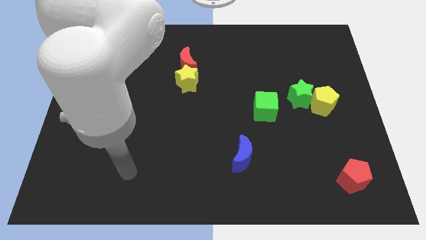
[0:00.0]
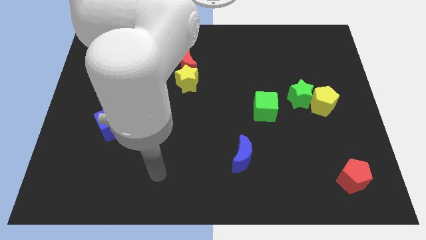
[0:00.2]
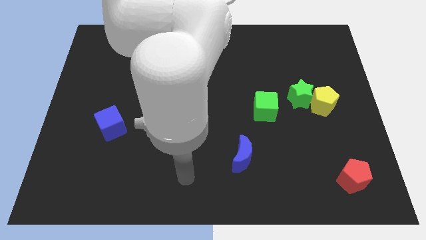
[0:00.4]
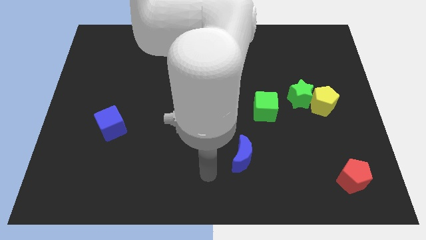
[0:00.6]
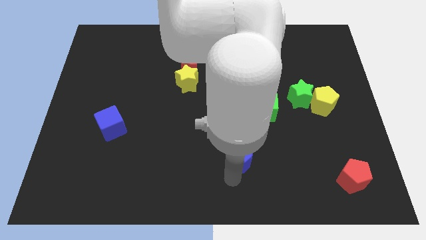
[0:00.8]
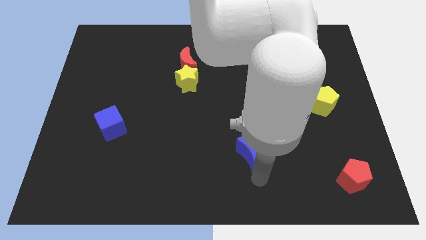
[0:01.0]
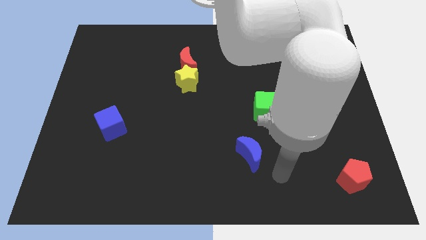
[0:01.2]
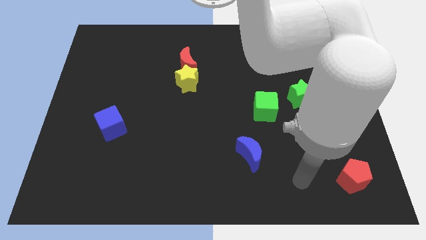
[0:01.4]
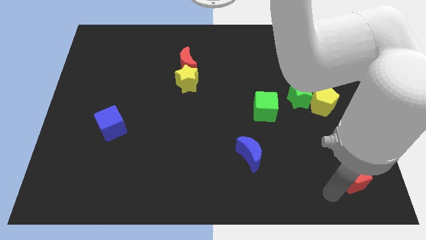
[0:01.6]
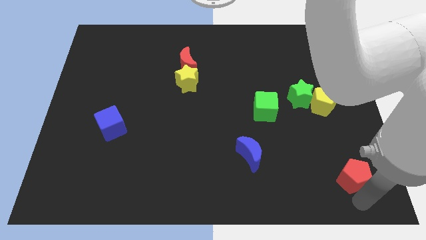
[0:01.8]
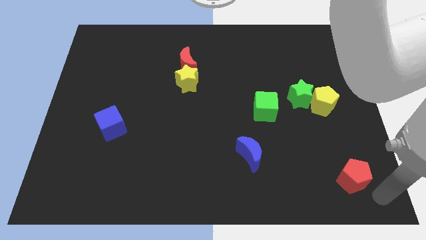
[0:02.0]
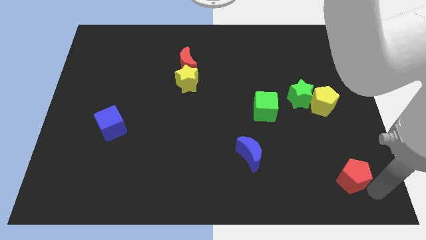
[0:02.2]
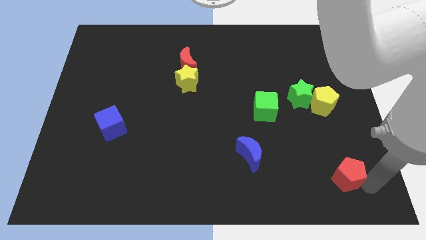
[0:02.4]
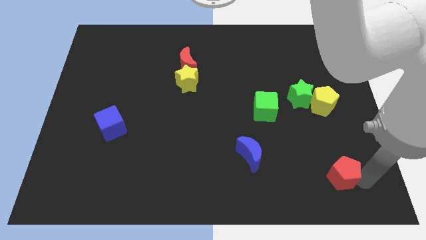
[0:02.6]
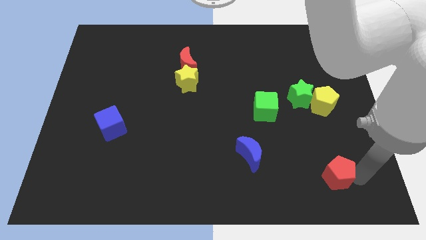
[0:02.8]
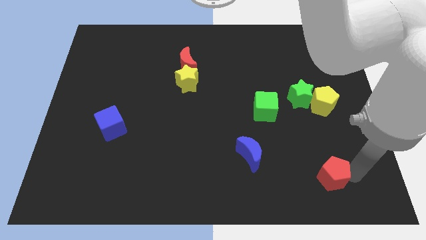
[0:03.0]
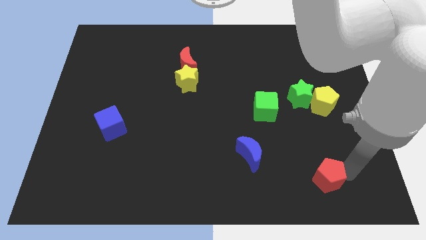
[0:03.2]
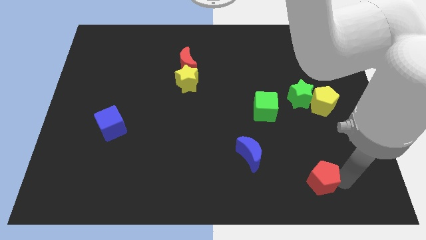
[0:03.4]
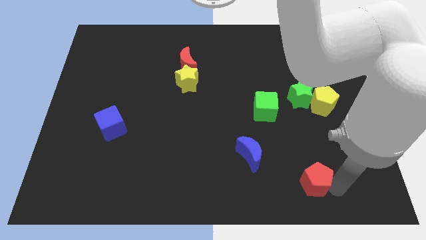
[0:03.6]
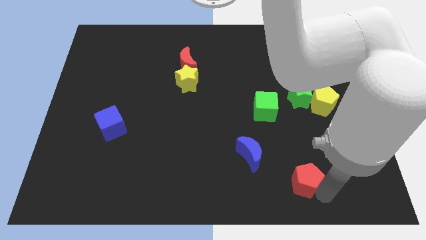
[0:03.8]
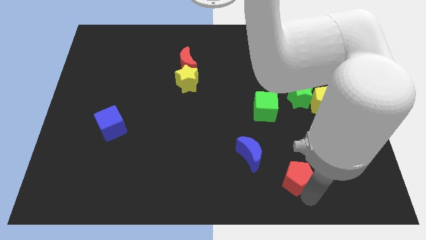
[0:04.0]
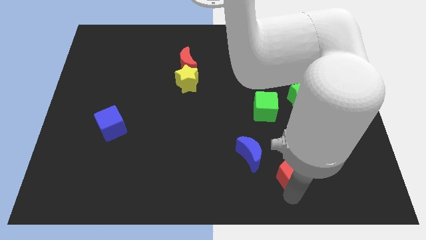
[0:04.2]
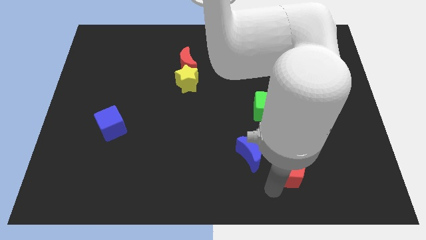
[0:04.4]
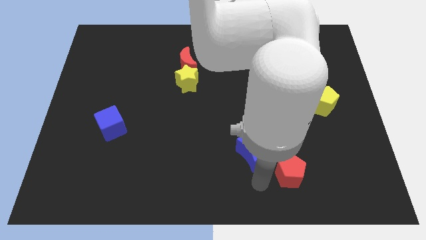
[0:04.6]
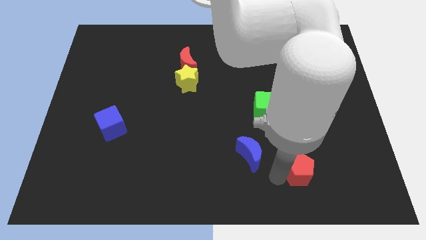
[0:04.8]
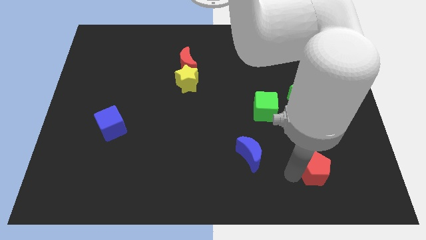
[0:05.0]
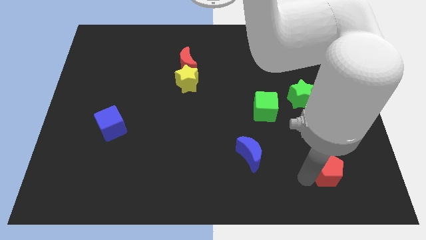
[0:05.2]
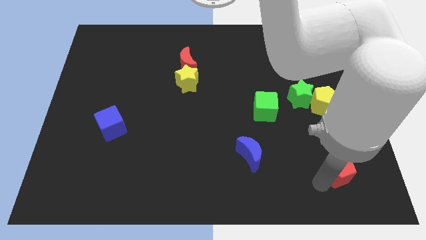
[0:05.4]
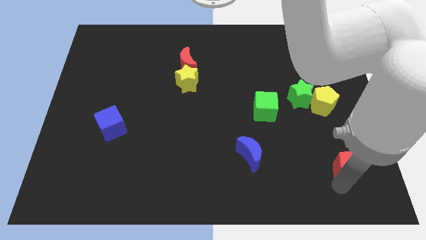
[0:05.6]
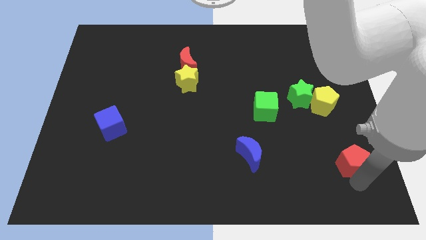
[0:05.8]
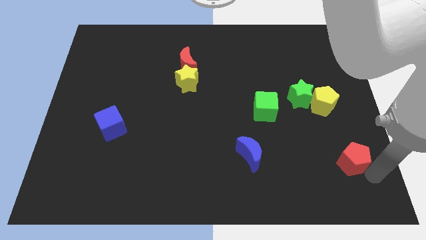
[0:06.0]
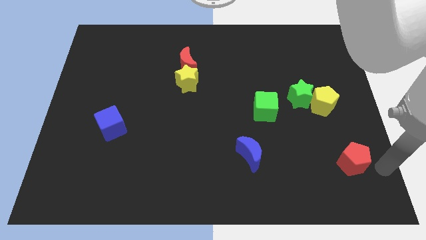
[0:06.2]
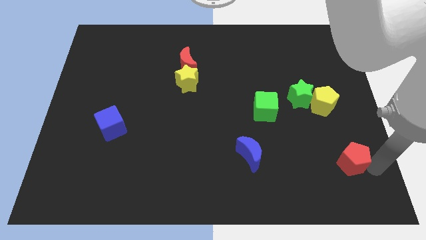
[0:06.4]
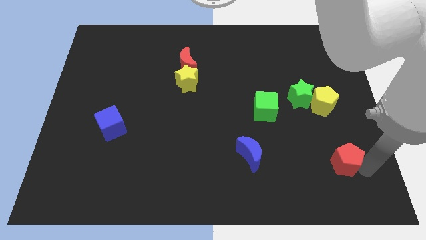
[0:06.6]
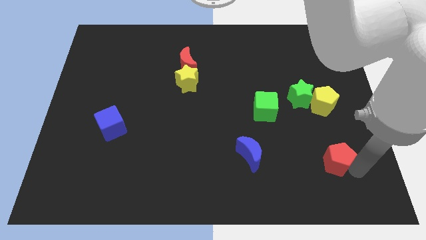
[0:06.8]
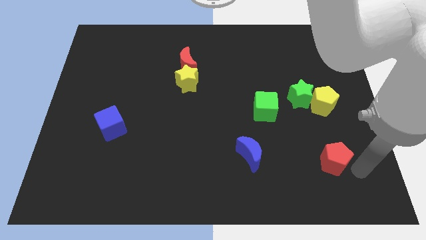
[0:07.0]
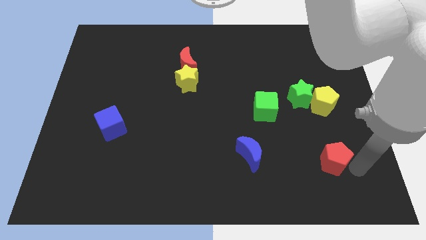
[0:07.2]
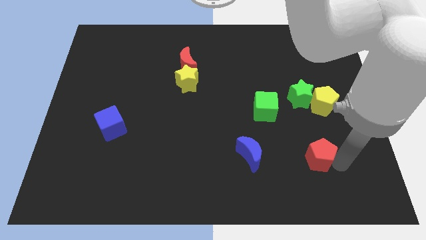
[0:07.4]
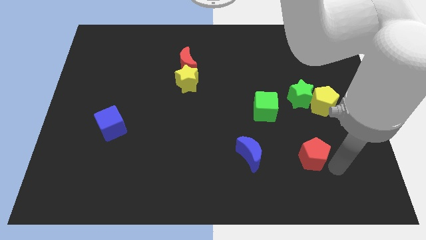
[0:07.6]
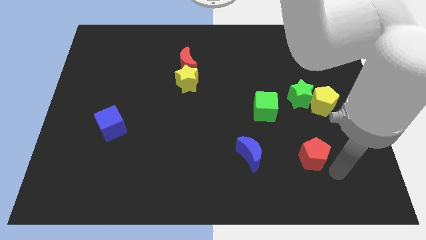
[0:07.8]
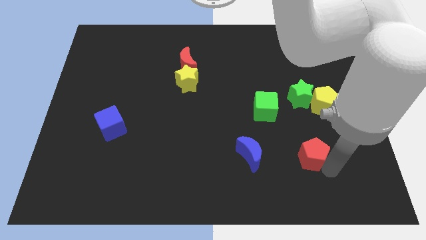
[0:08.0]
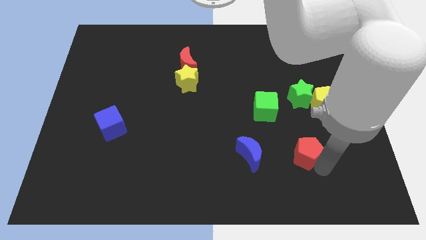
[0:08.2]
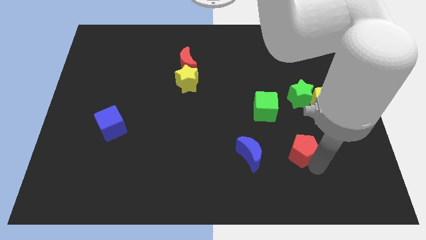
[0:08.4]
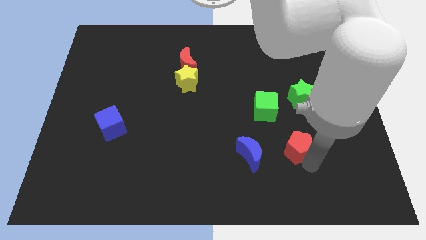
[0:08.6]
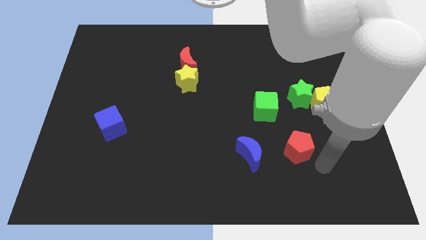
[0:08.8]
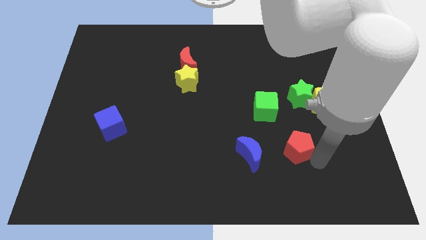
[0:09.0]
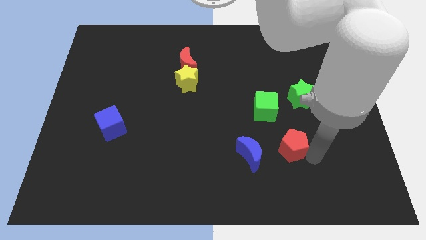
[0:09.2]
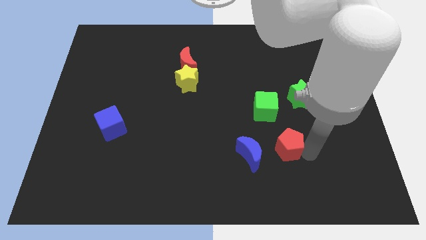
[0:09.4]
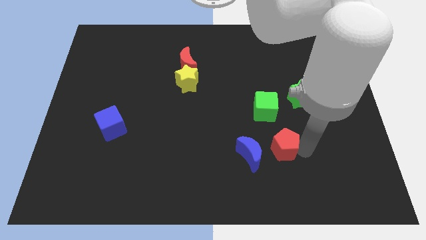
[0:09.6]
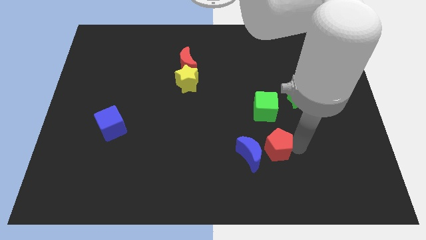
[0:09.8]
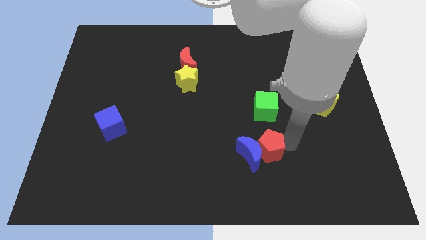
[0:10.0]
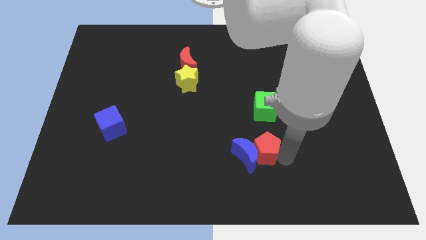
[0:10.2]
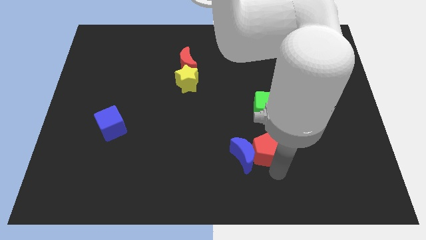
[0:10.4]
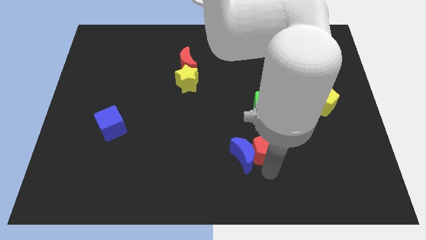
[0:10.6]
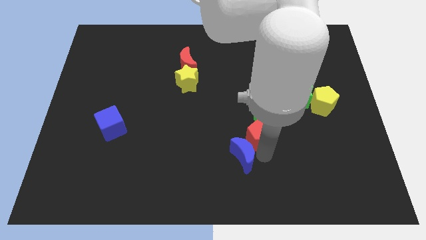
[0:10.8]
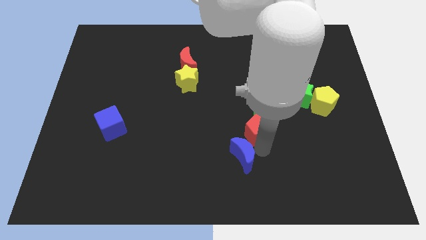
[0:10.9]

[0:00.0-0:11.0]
slide the red pentagon up and then to the left

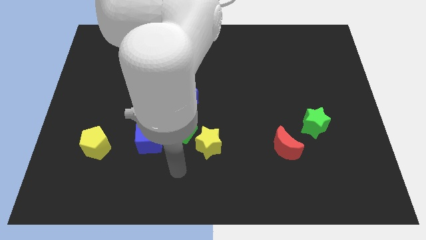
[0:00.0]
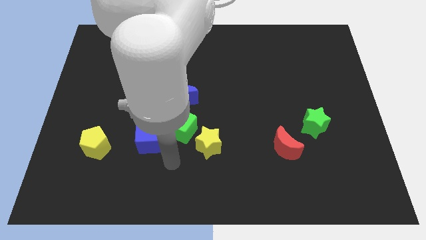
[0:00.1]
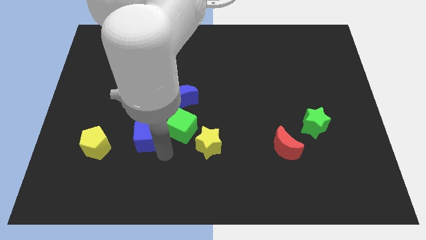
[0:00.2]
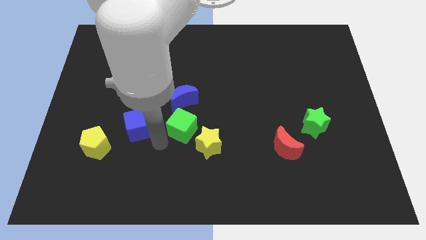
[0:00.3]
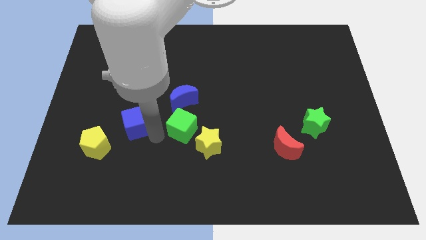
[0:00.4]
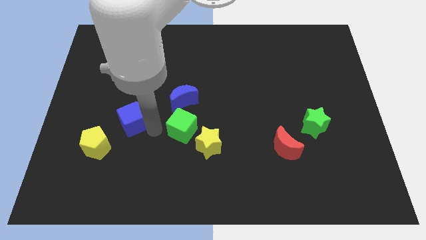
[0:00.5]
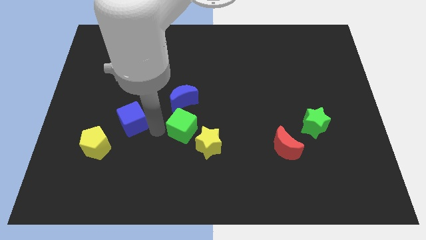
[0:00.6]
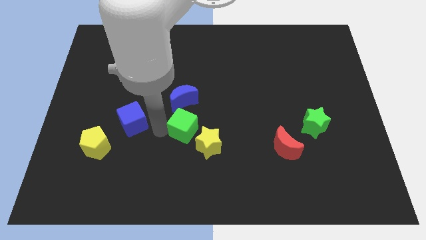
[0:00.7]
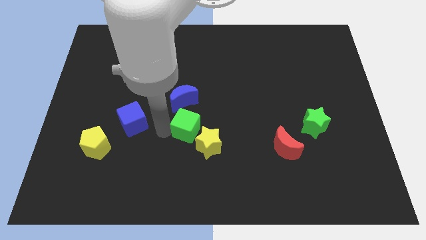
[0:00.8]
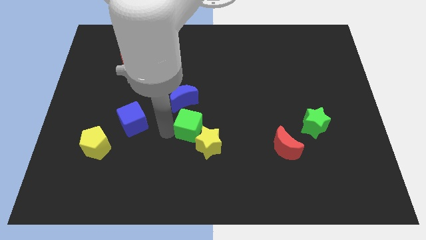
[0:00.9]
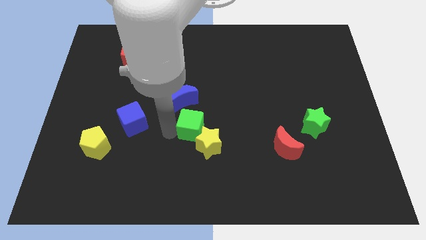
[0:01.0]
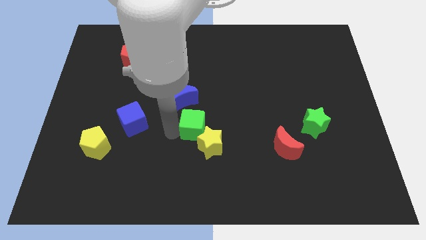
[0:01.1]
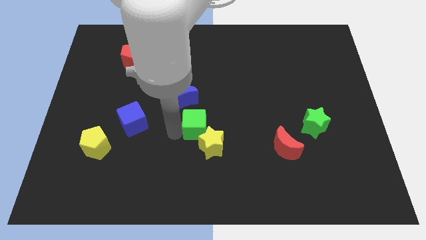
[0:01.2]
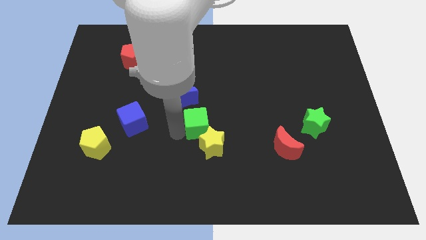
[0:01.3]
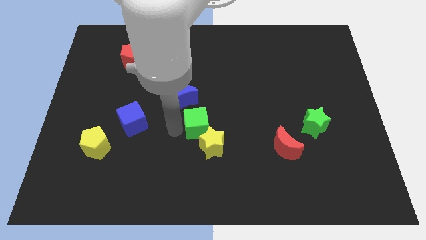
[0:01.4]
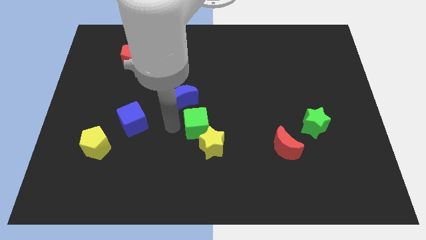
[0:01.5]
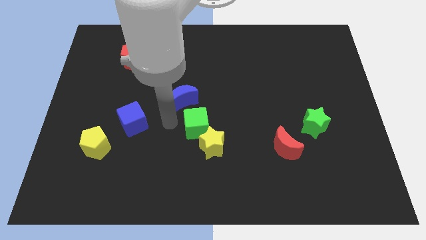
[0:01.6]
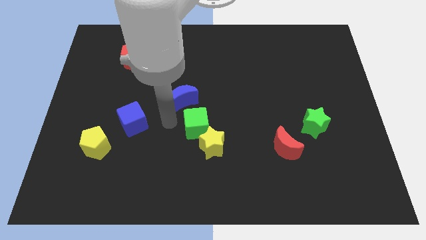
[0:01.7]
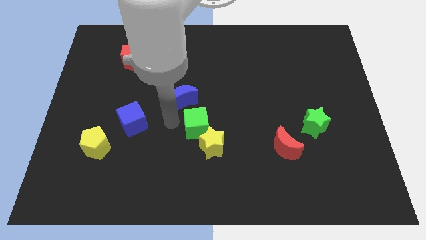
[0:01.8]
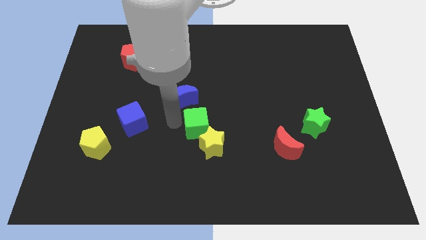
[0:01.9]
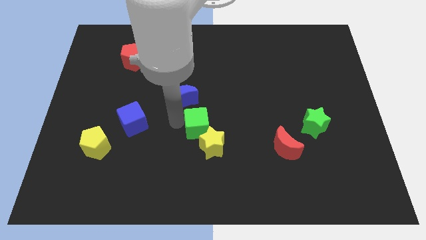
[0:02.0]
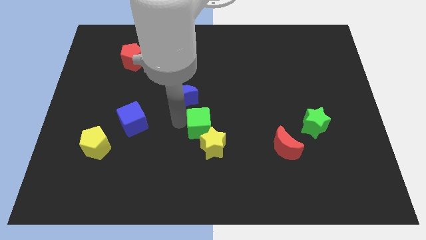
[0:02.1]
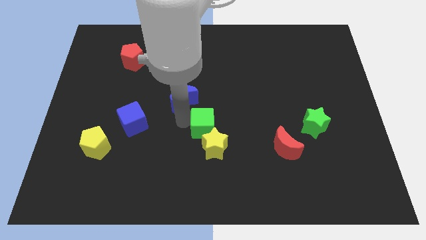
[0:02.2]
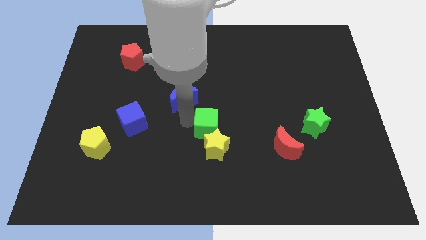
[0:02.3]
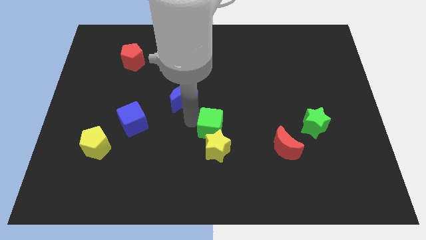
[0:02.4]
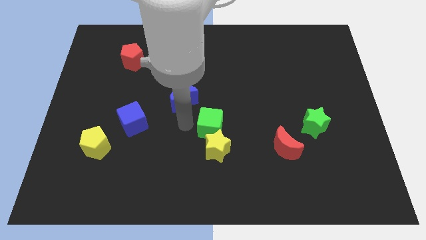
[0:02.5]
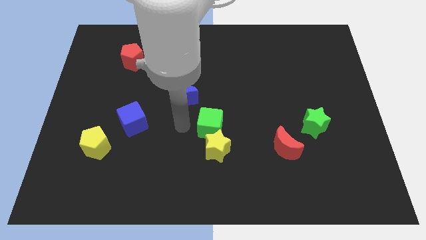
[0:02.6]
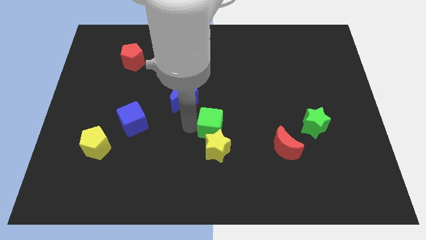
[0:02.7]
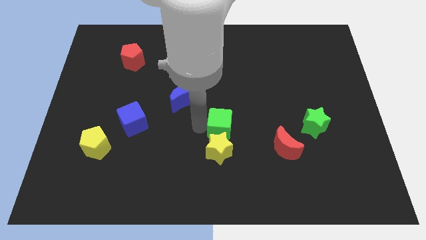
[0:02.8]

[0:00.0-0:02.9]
slide the green cube right a little

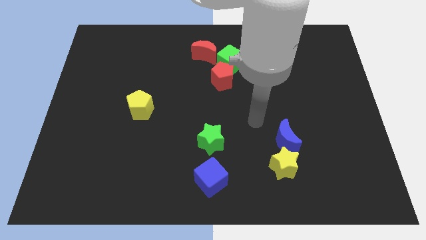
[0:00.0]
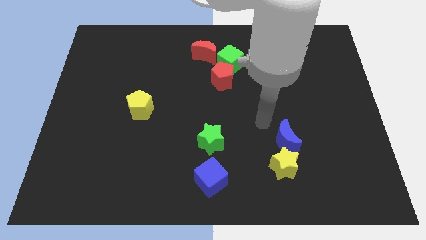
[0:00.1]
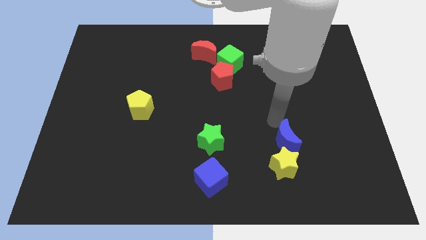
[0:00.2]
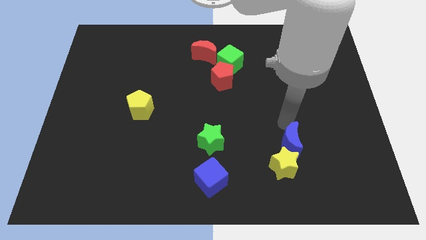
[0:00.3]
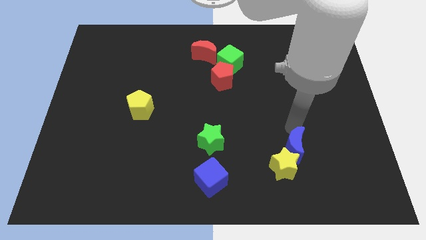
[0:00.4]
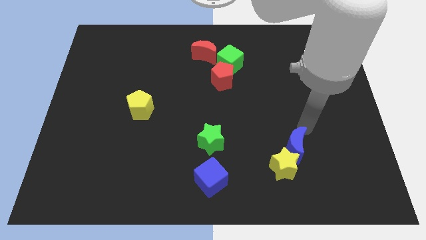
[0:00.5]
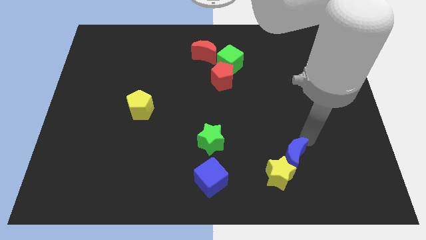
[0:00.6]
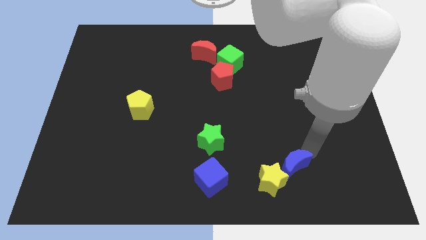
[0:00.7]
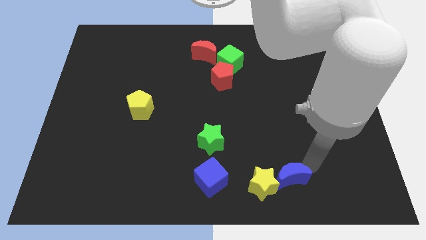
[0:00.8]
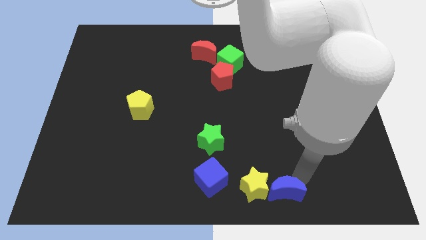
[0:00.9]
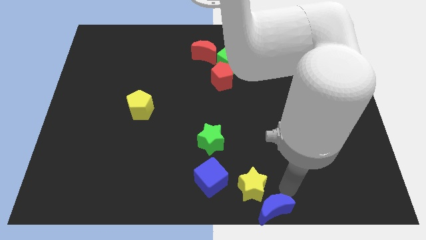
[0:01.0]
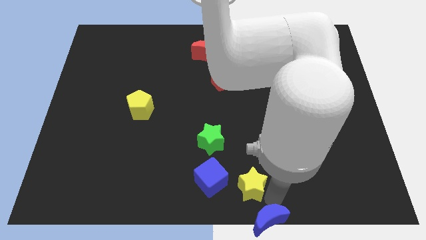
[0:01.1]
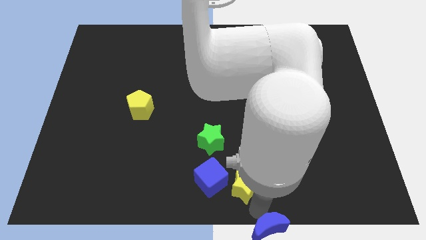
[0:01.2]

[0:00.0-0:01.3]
slightly slide the yellow star left
